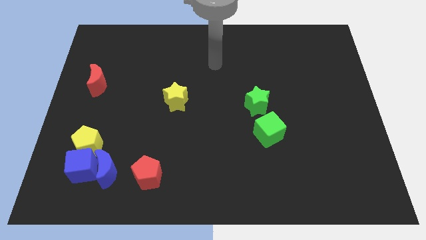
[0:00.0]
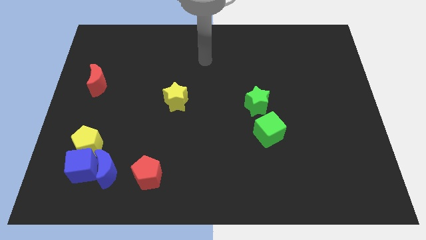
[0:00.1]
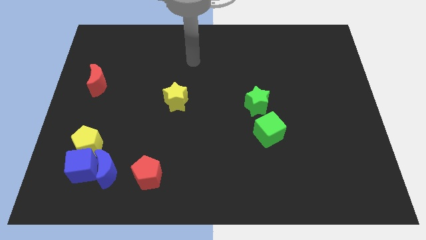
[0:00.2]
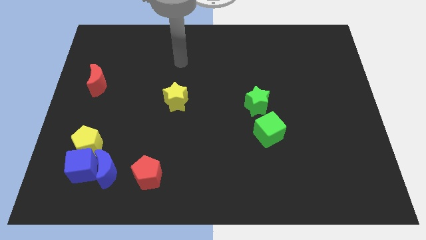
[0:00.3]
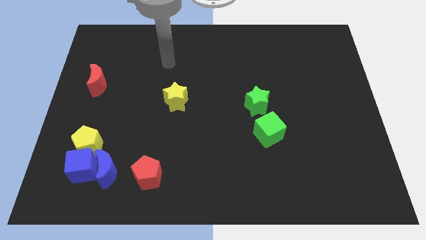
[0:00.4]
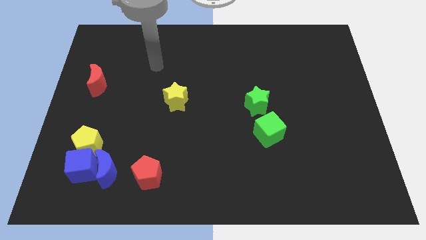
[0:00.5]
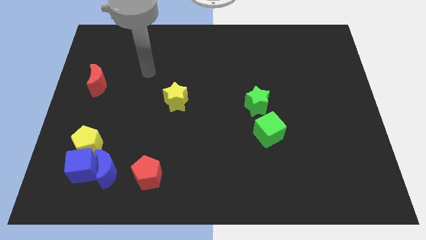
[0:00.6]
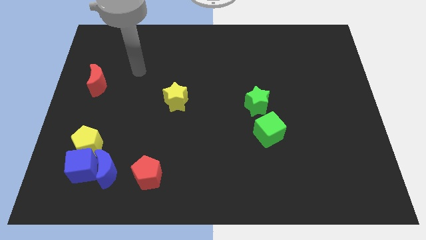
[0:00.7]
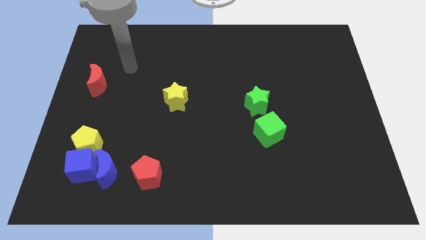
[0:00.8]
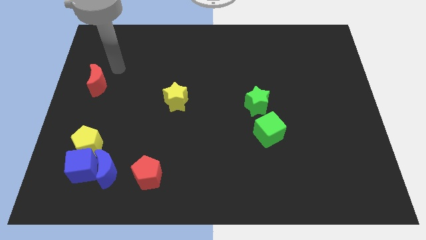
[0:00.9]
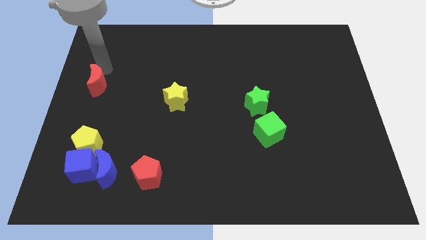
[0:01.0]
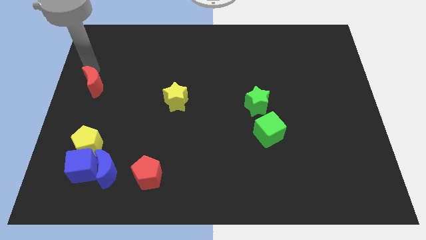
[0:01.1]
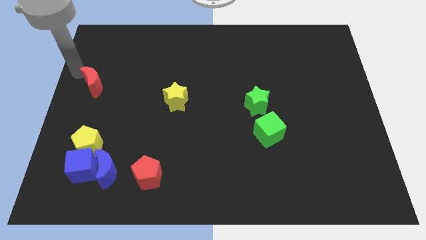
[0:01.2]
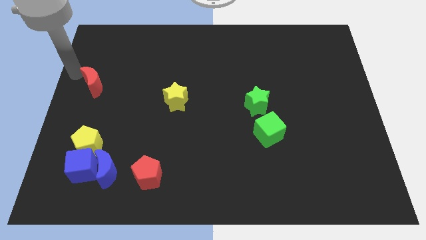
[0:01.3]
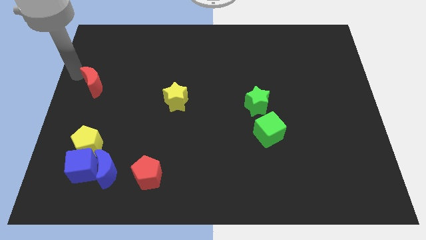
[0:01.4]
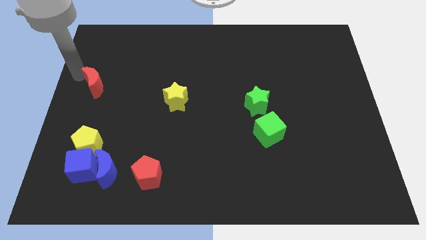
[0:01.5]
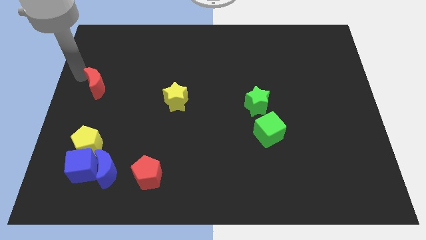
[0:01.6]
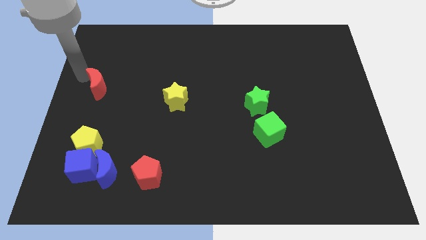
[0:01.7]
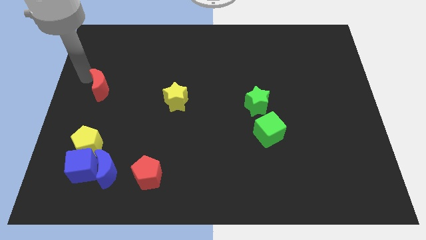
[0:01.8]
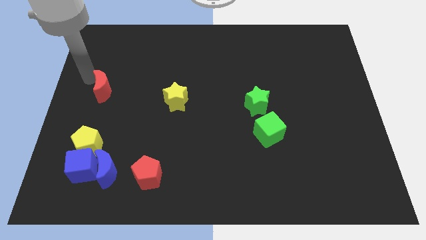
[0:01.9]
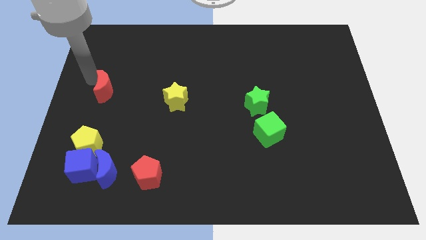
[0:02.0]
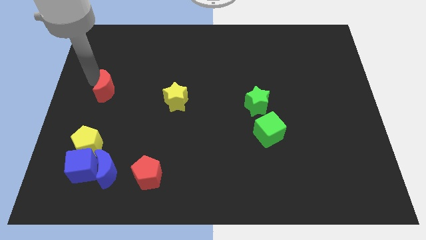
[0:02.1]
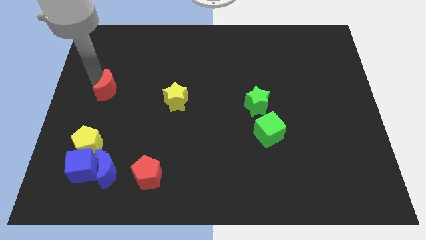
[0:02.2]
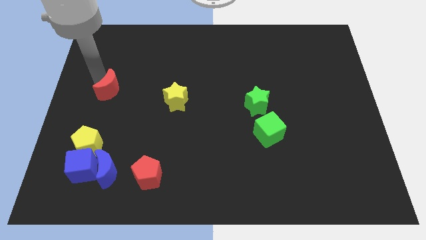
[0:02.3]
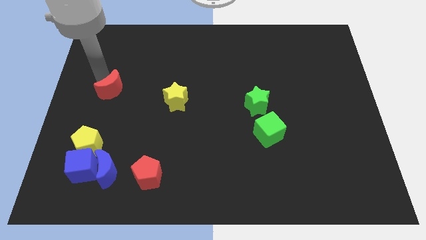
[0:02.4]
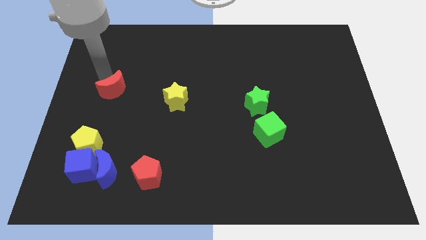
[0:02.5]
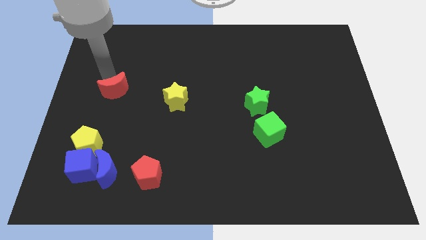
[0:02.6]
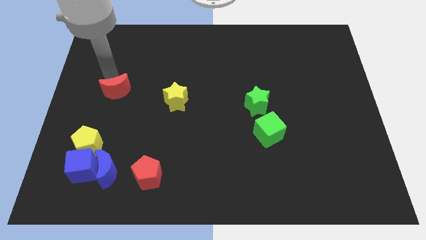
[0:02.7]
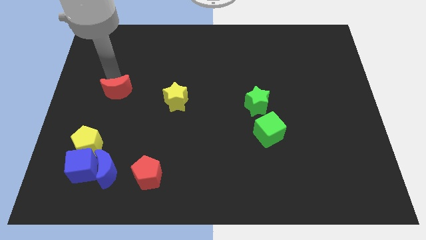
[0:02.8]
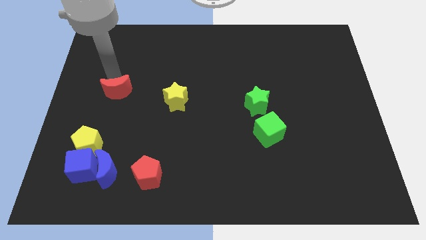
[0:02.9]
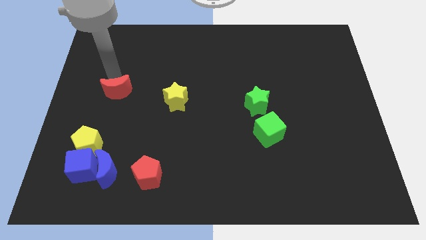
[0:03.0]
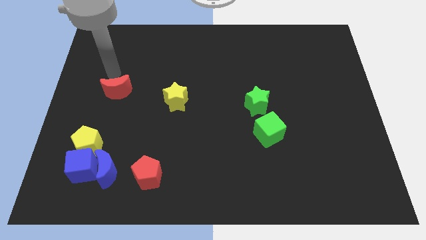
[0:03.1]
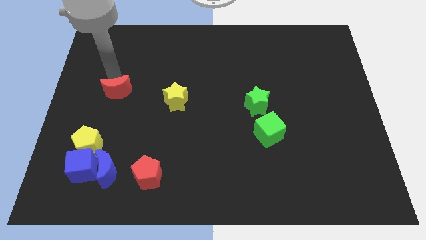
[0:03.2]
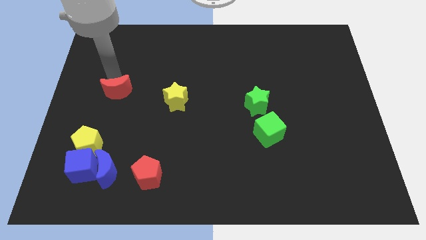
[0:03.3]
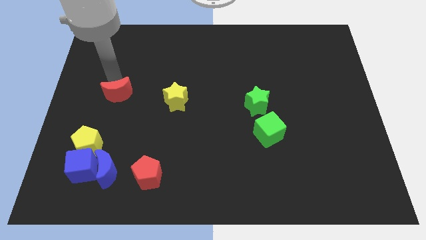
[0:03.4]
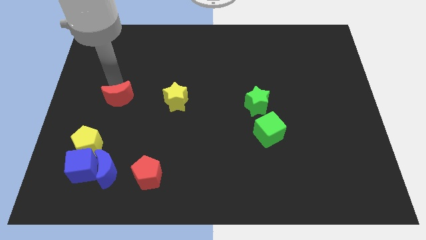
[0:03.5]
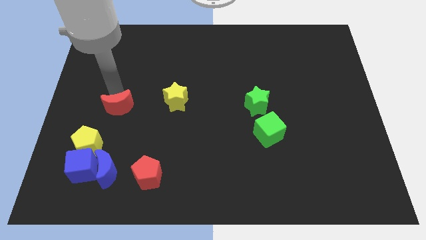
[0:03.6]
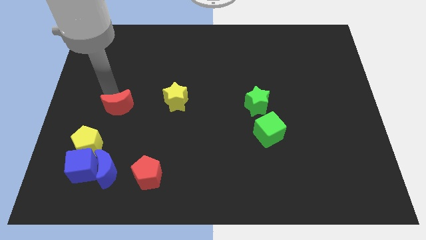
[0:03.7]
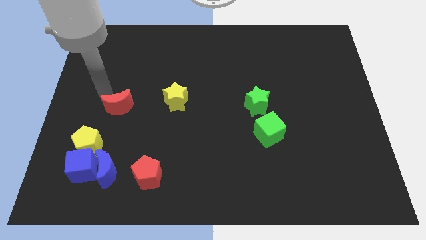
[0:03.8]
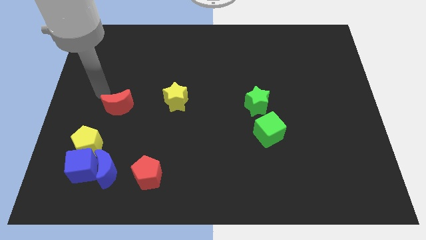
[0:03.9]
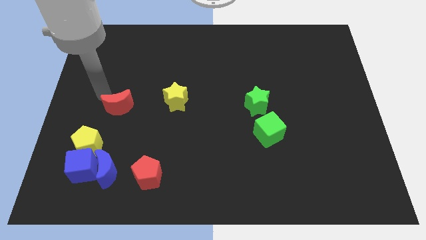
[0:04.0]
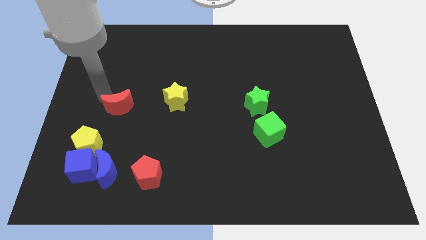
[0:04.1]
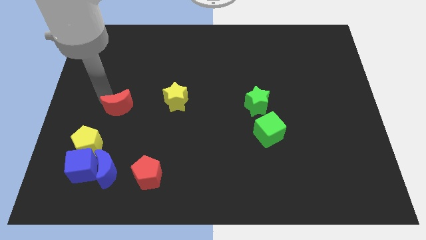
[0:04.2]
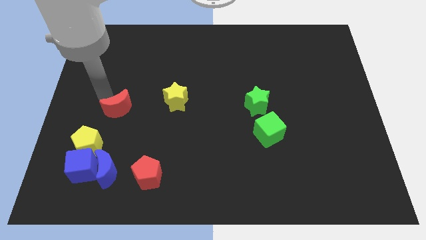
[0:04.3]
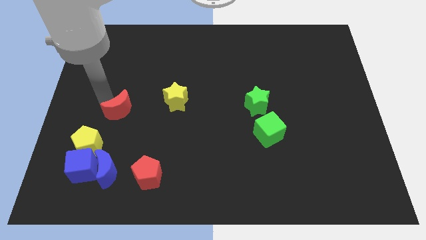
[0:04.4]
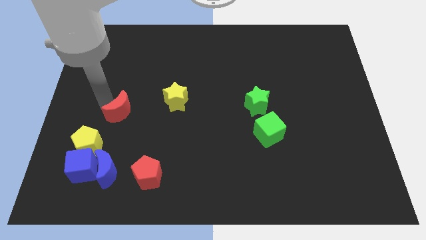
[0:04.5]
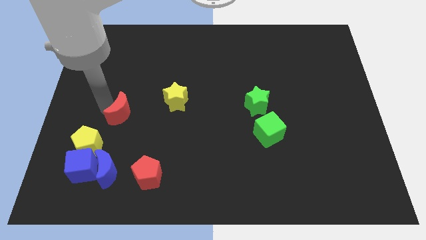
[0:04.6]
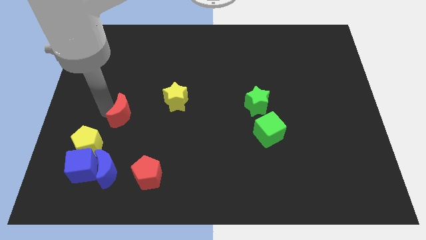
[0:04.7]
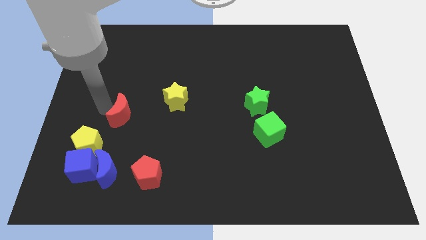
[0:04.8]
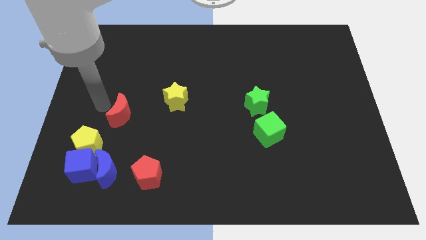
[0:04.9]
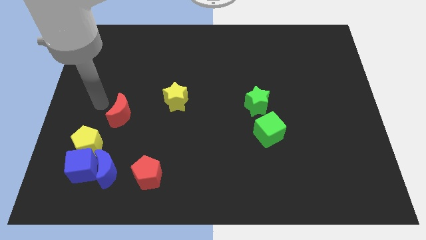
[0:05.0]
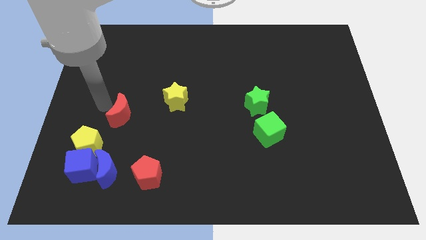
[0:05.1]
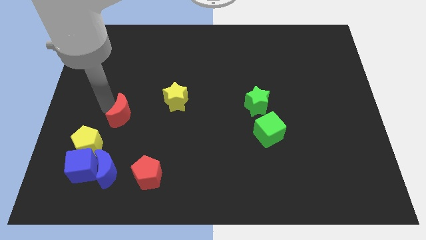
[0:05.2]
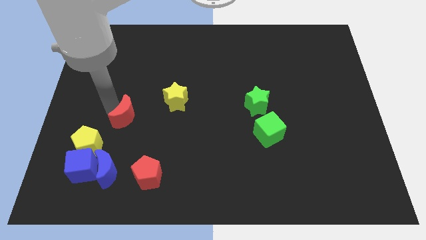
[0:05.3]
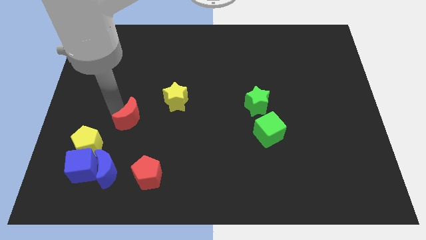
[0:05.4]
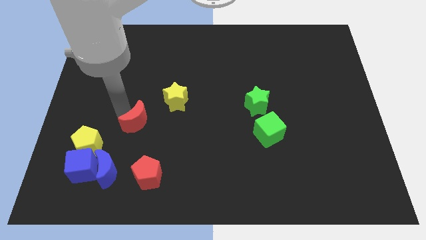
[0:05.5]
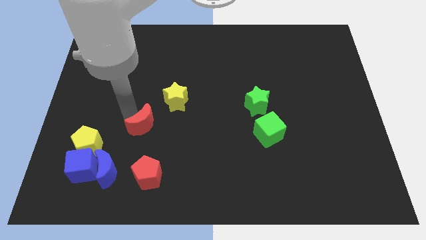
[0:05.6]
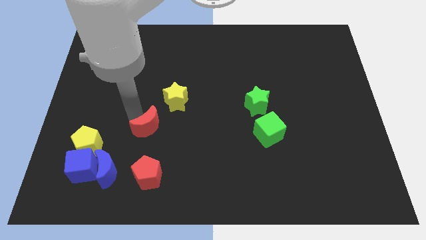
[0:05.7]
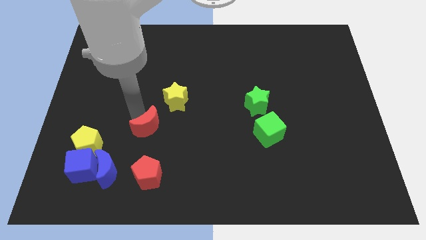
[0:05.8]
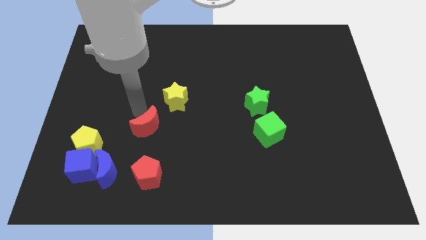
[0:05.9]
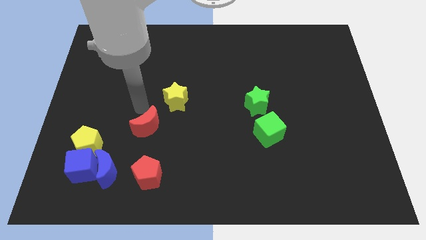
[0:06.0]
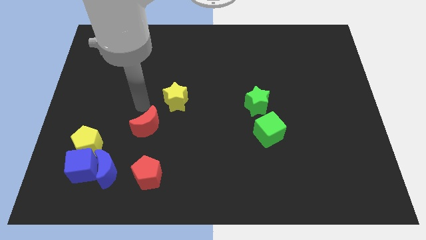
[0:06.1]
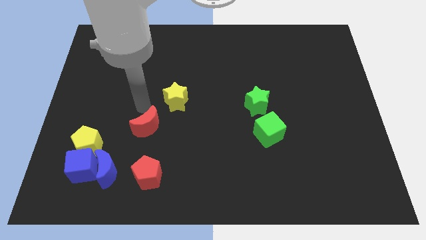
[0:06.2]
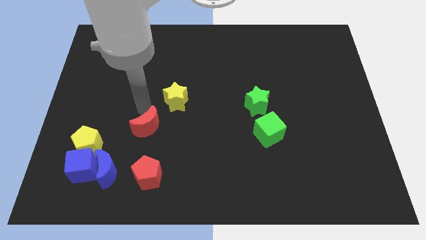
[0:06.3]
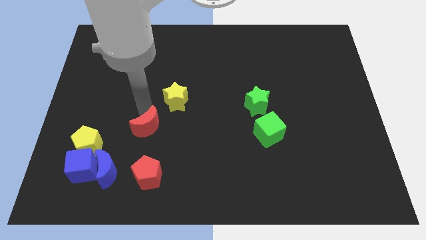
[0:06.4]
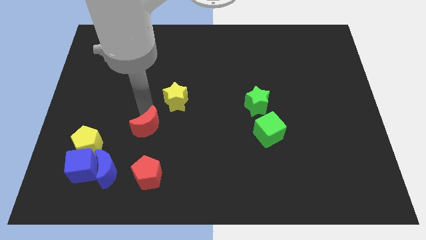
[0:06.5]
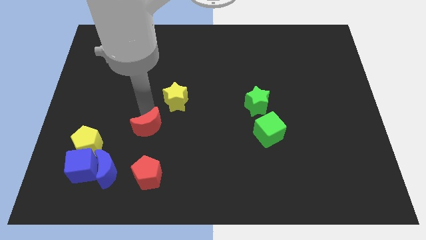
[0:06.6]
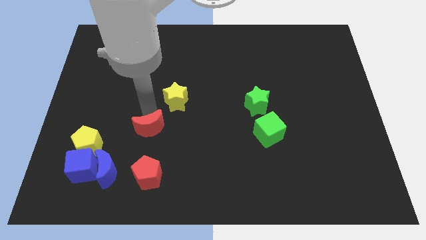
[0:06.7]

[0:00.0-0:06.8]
slide the red moon down and right diagonally

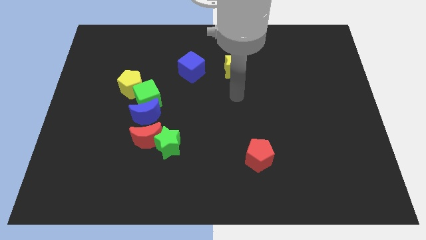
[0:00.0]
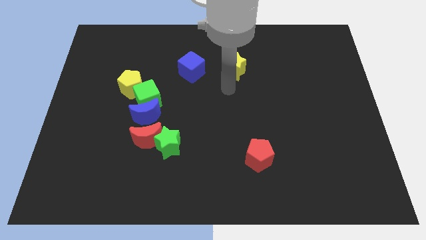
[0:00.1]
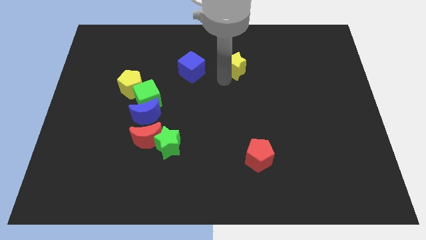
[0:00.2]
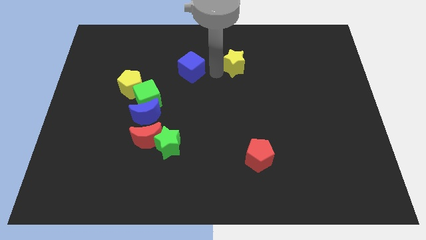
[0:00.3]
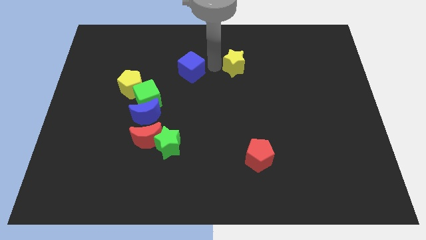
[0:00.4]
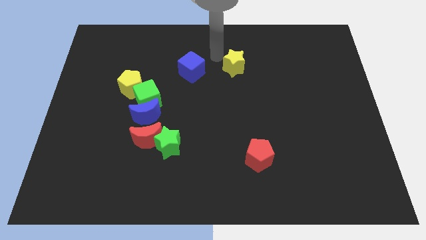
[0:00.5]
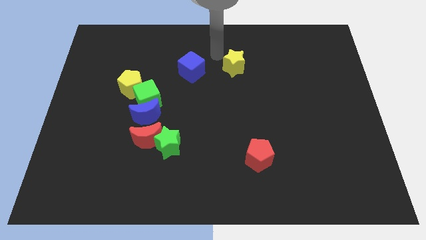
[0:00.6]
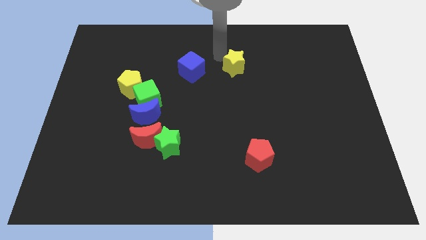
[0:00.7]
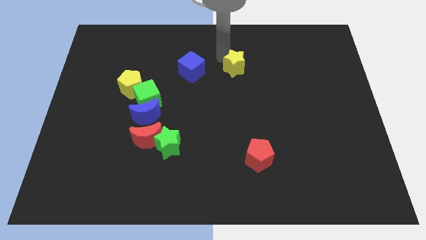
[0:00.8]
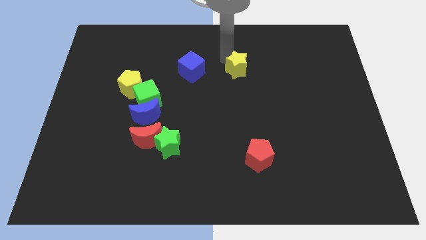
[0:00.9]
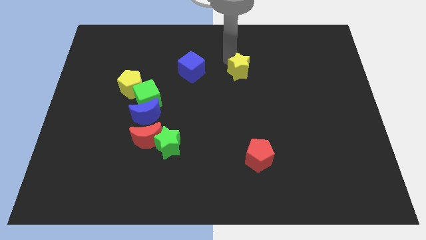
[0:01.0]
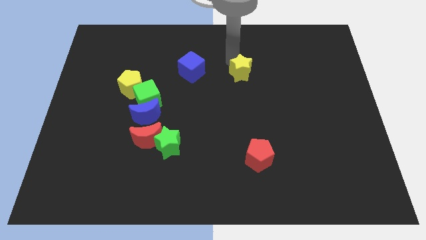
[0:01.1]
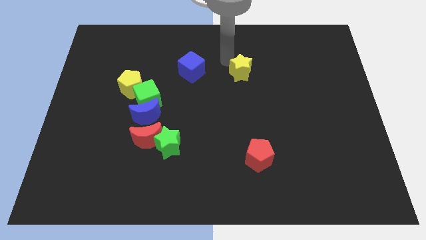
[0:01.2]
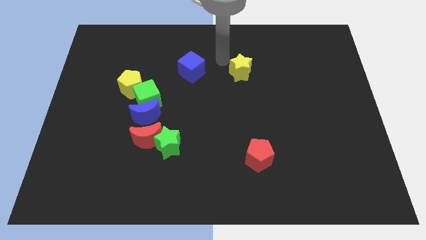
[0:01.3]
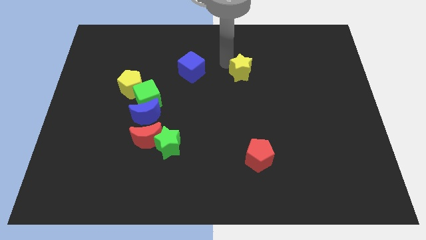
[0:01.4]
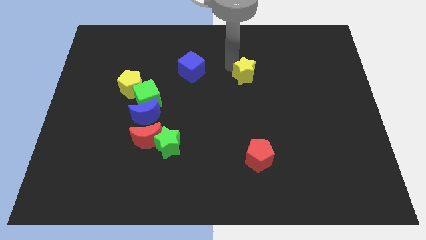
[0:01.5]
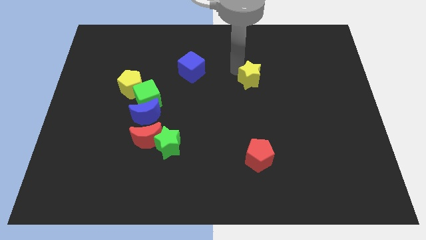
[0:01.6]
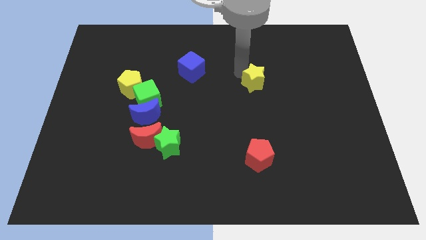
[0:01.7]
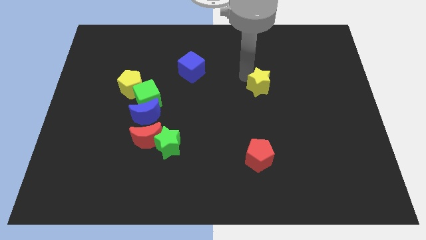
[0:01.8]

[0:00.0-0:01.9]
push the yellow star slightly down and then to the right
